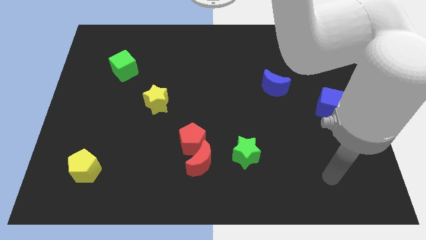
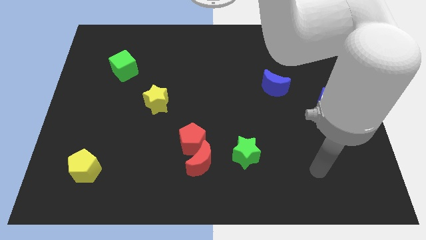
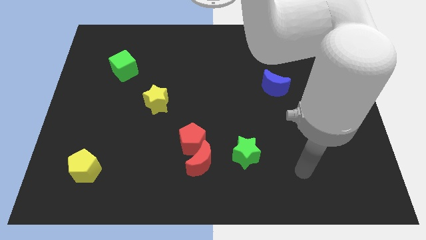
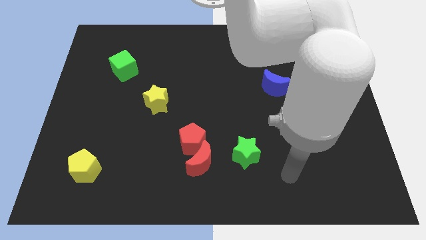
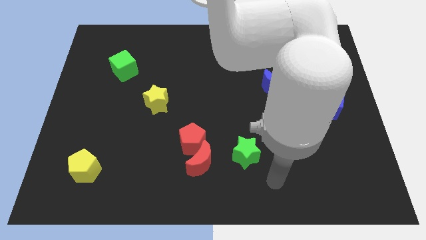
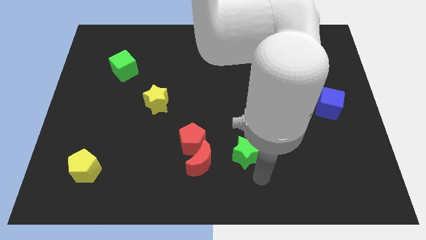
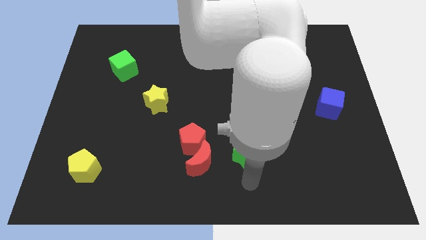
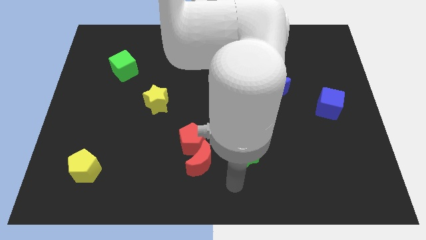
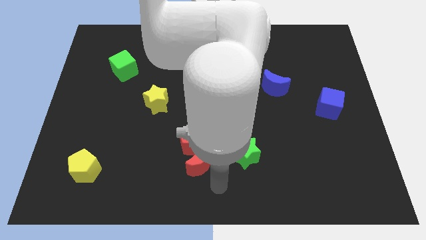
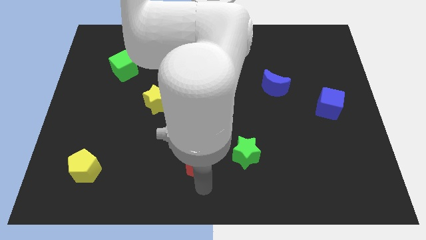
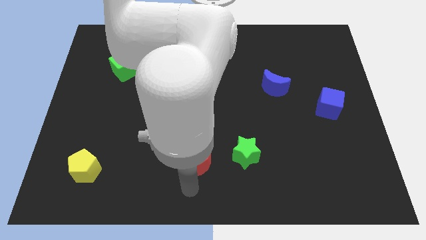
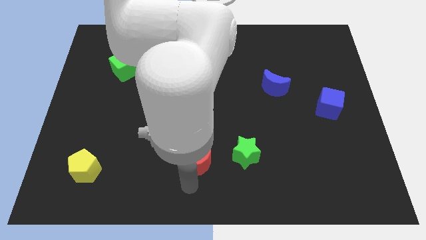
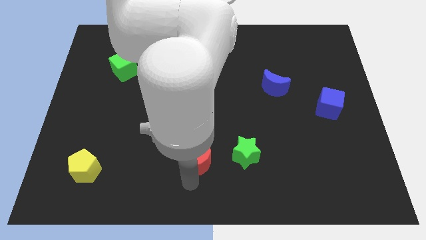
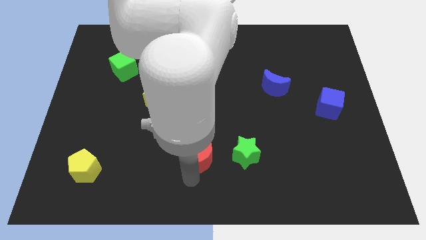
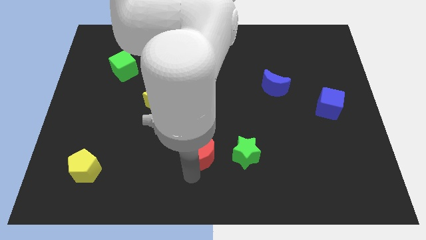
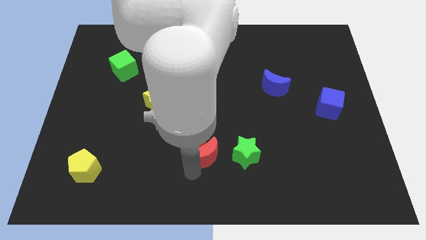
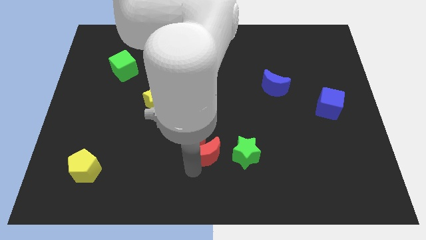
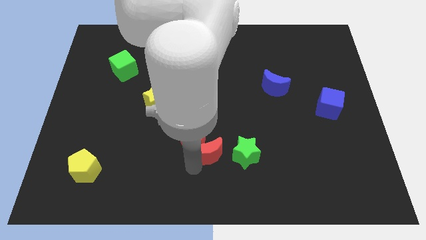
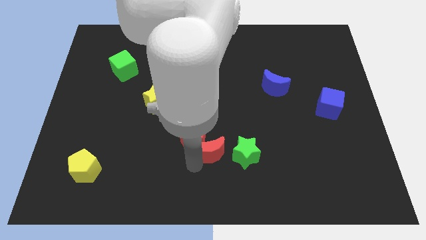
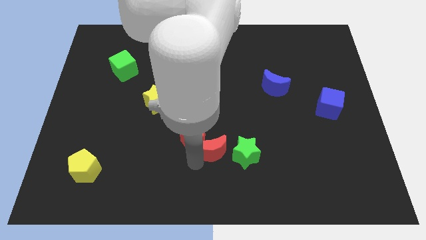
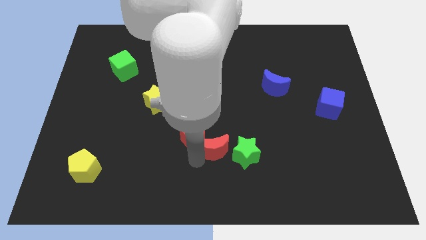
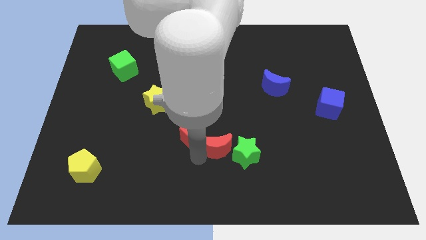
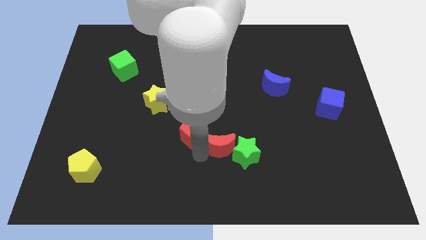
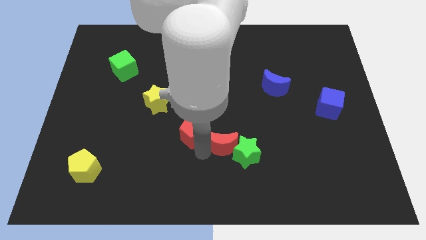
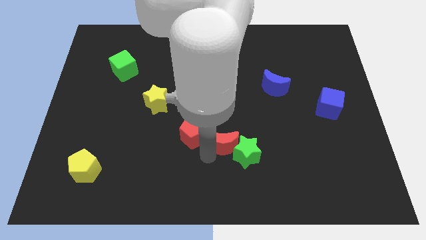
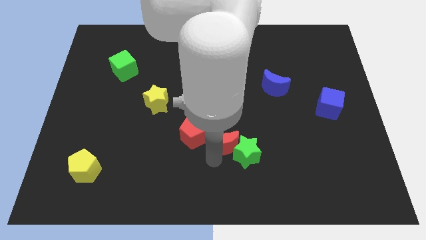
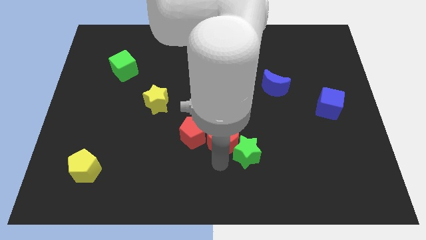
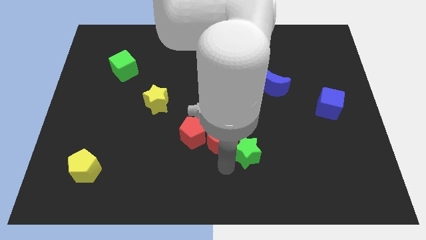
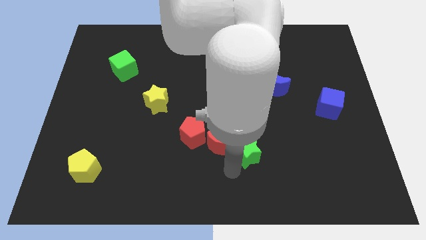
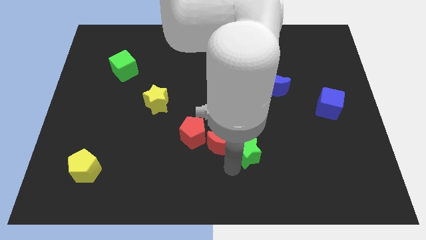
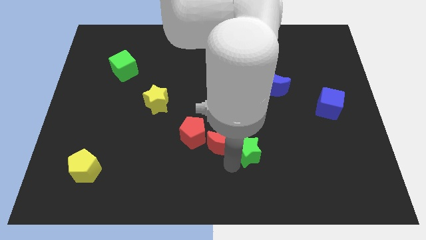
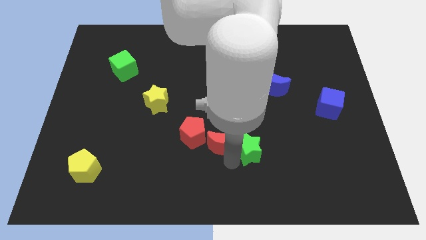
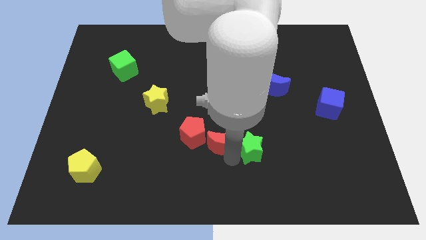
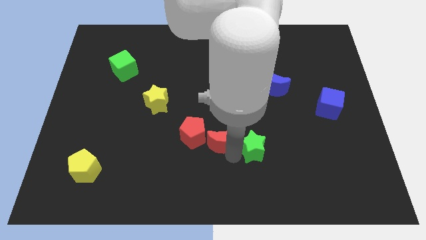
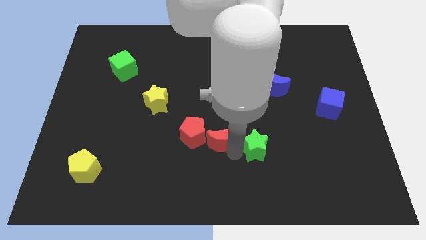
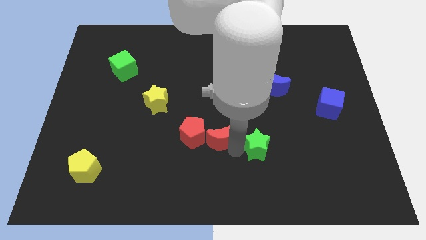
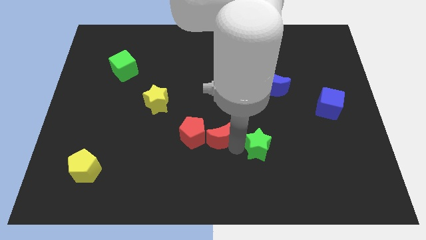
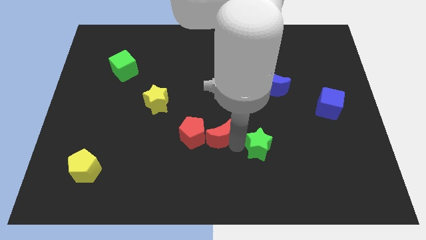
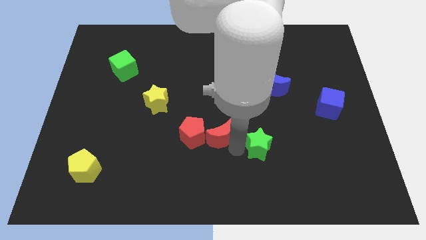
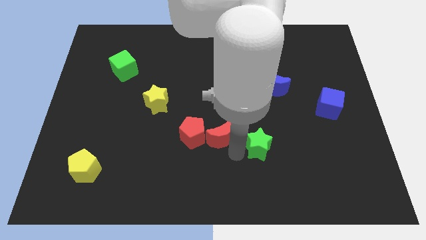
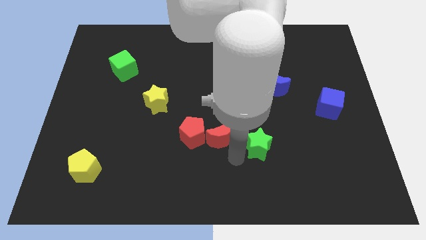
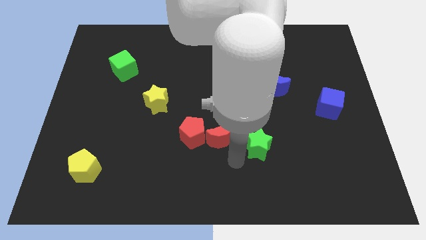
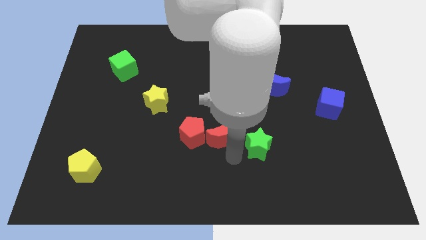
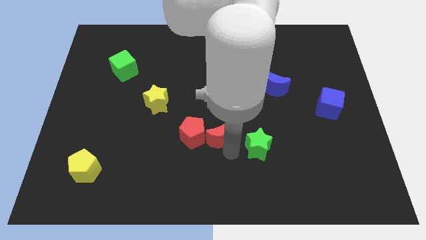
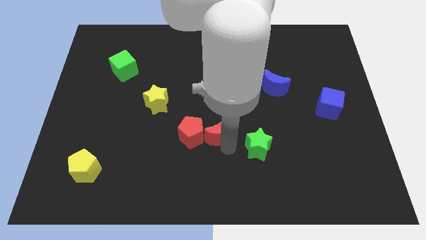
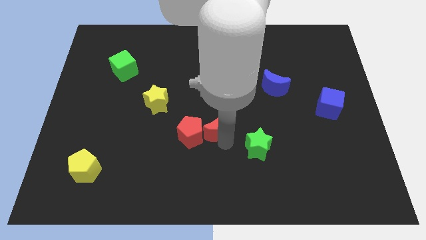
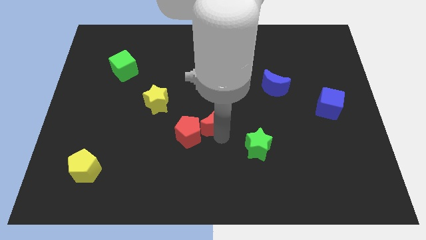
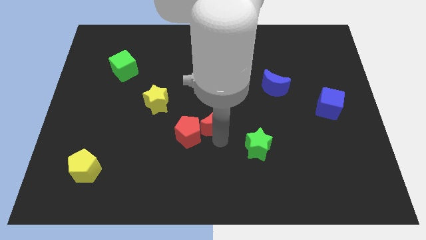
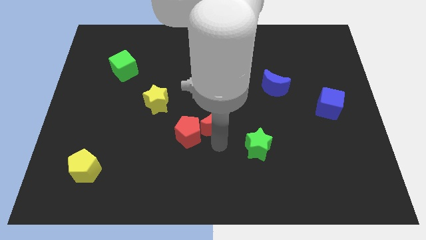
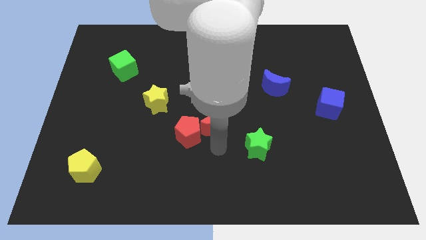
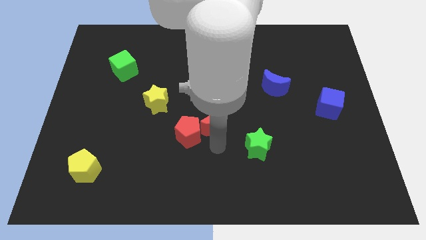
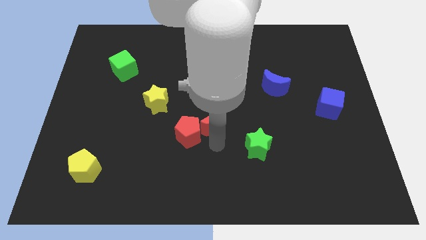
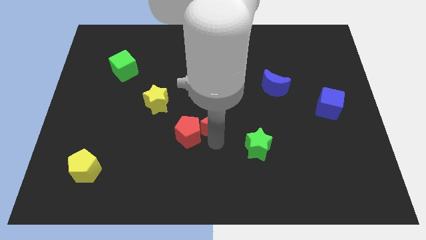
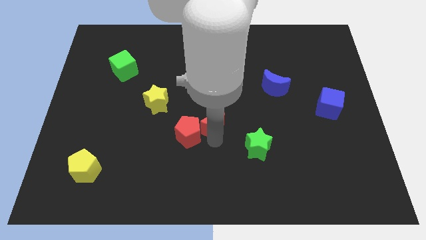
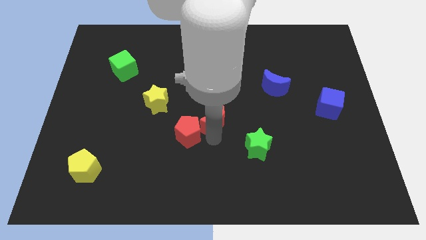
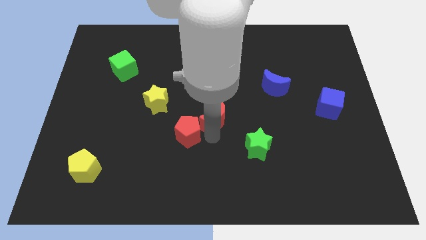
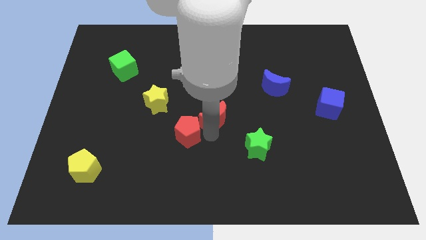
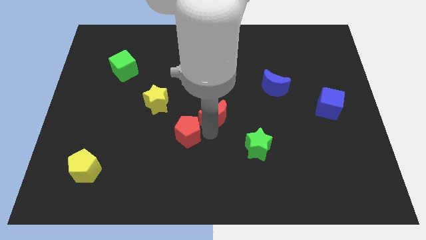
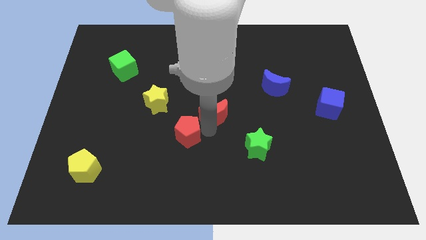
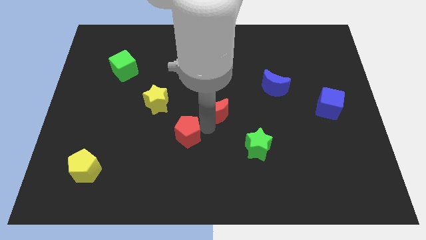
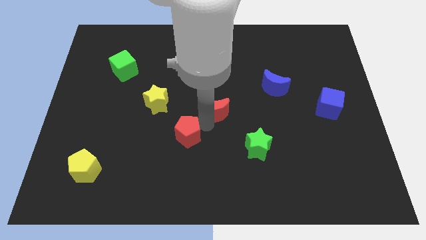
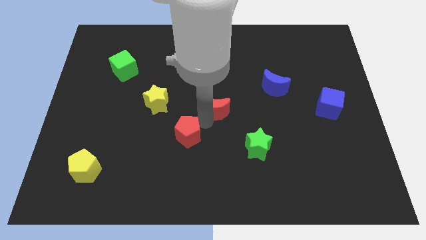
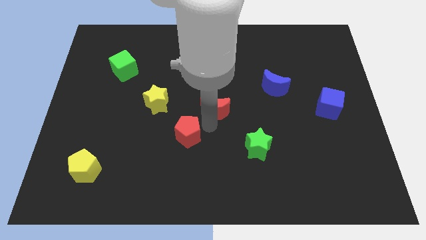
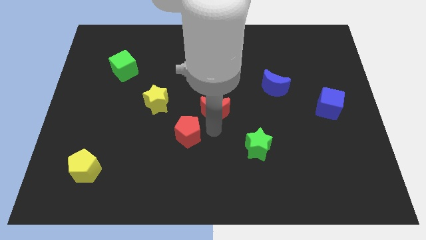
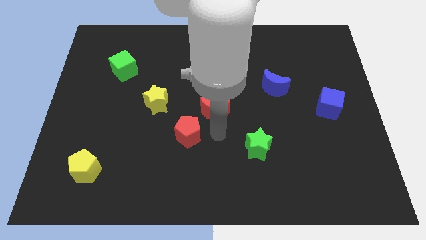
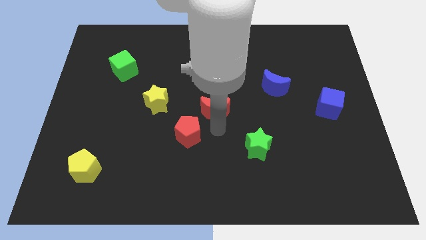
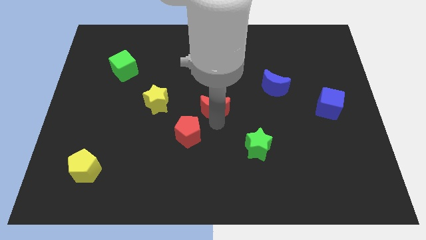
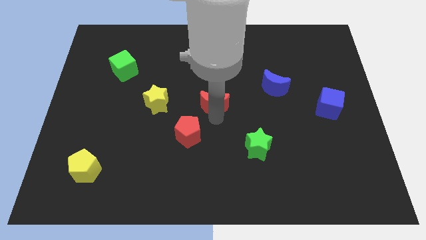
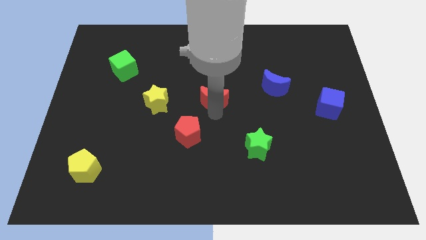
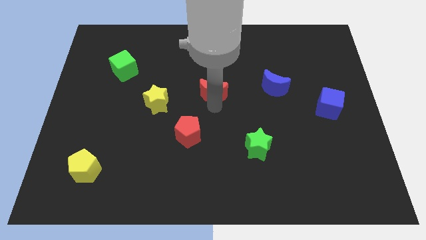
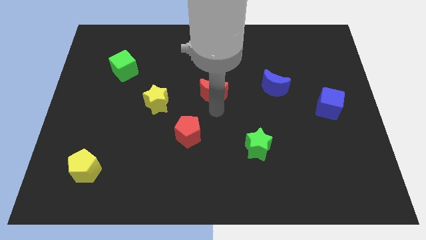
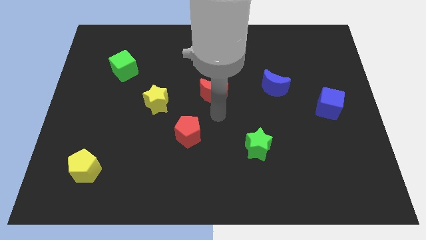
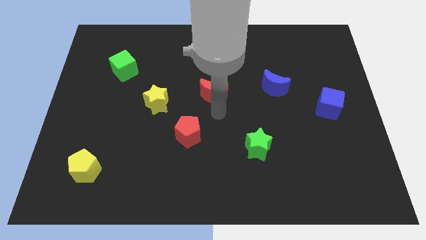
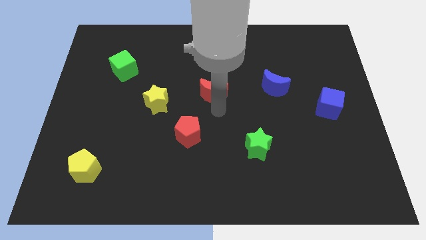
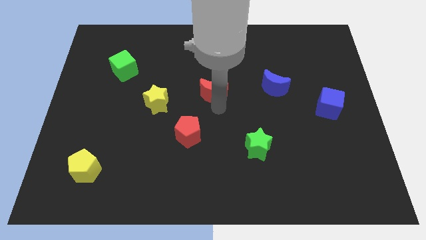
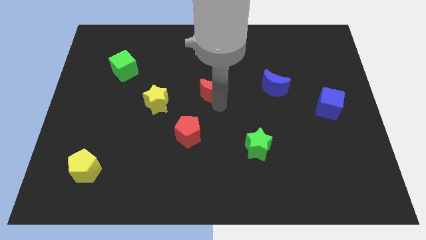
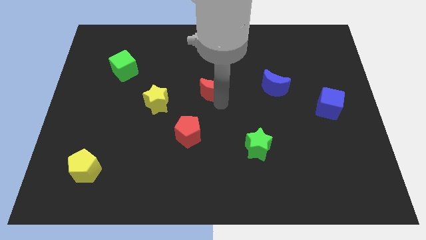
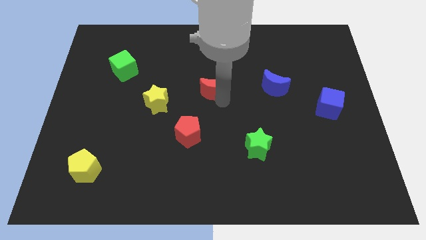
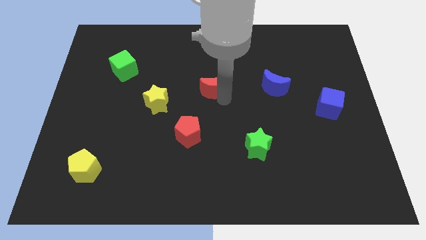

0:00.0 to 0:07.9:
push the red moon upwards
